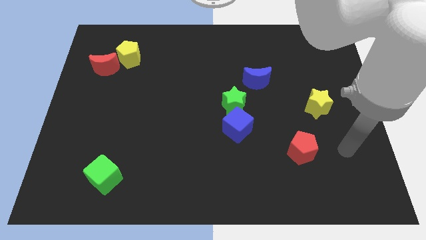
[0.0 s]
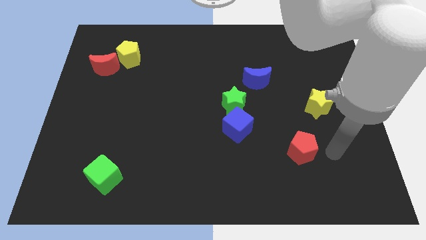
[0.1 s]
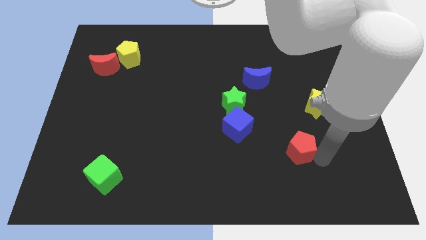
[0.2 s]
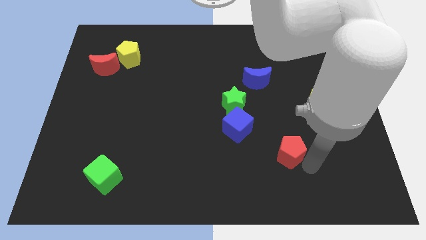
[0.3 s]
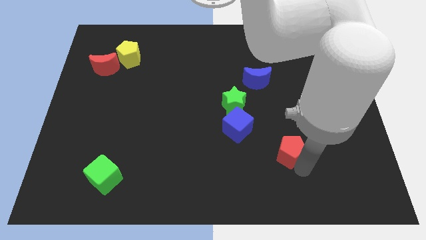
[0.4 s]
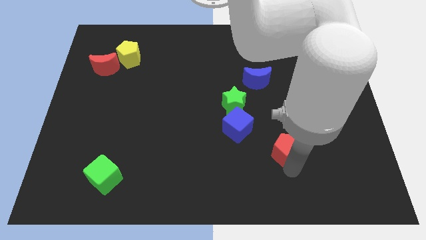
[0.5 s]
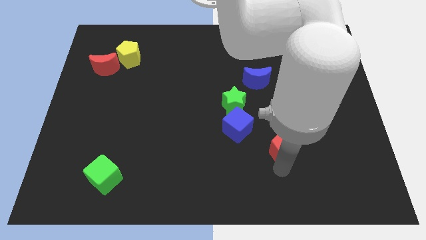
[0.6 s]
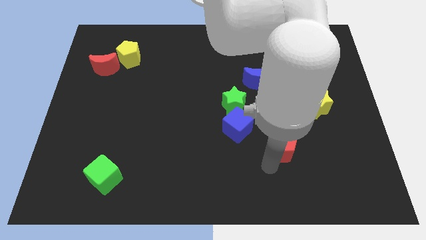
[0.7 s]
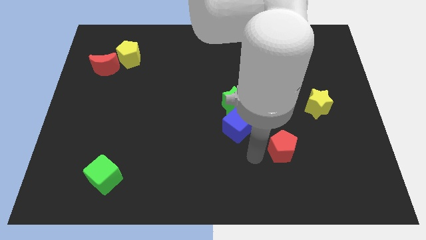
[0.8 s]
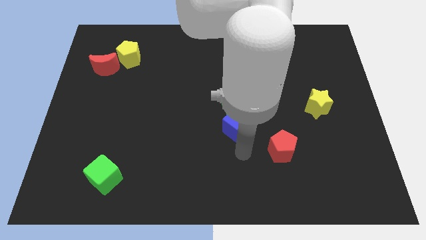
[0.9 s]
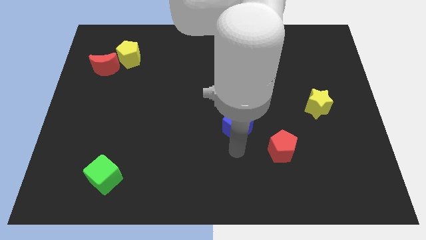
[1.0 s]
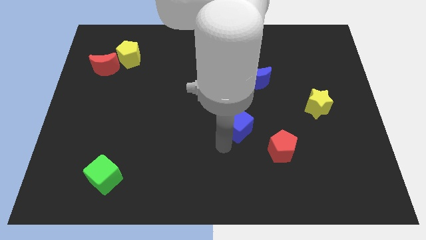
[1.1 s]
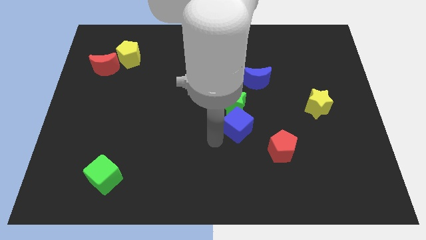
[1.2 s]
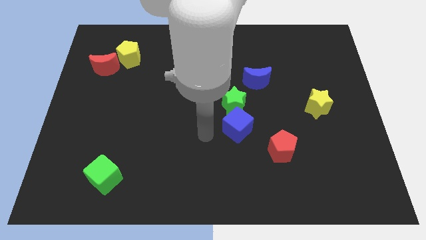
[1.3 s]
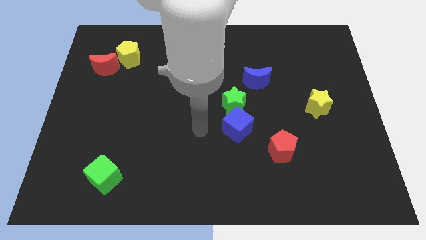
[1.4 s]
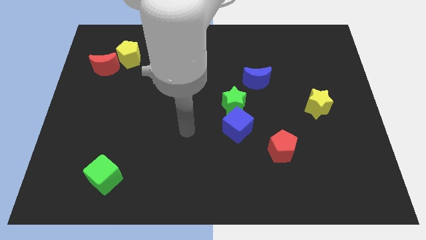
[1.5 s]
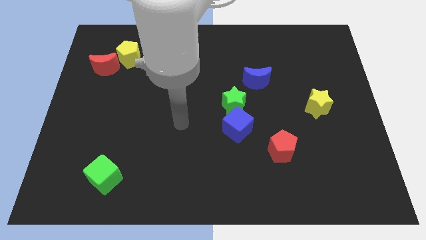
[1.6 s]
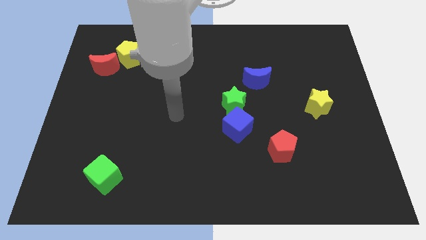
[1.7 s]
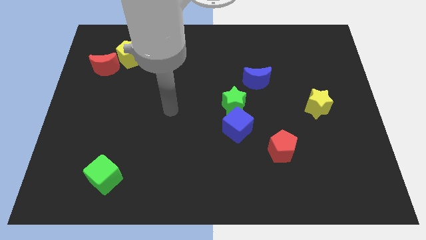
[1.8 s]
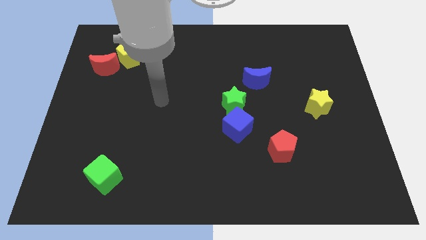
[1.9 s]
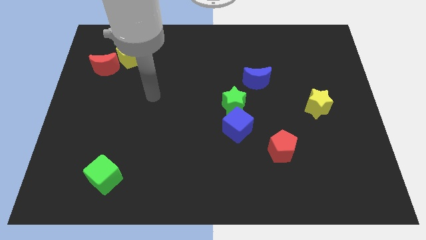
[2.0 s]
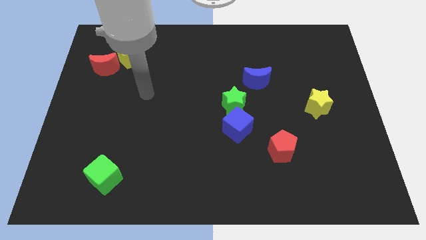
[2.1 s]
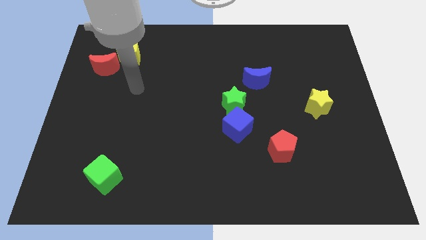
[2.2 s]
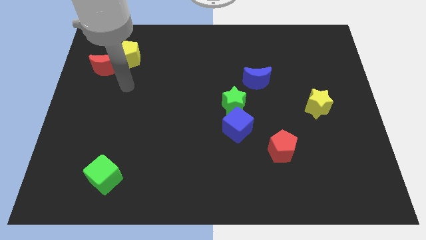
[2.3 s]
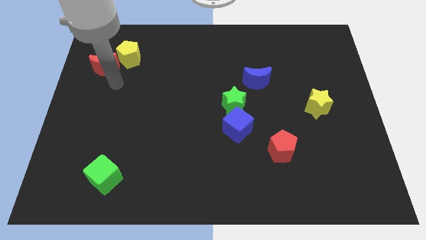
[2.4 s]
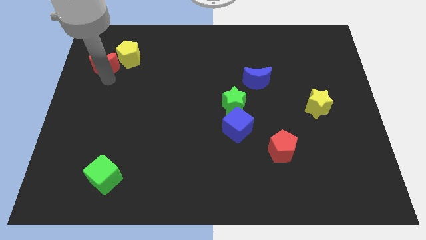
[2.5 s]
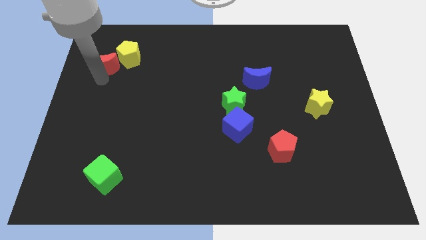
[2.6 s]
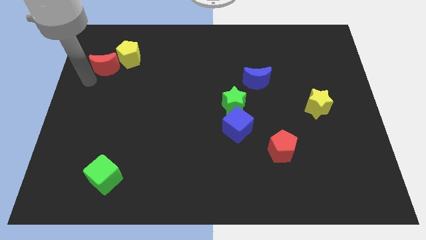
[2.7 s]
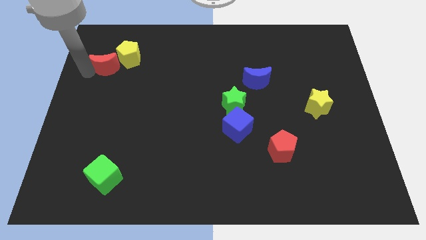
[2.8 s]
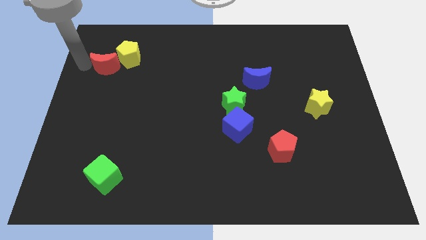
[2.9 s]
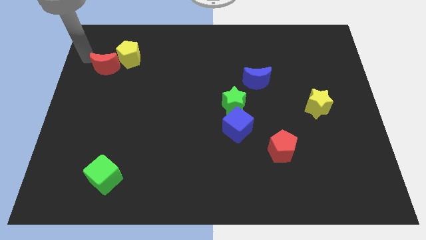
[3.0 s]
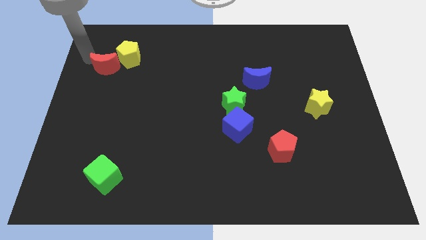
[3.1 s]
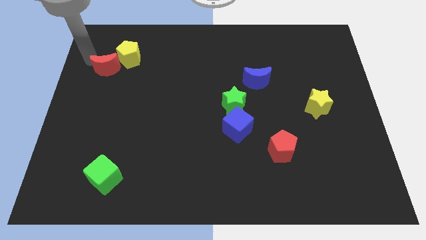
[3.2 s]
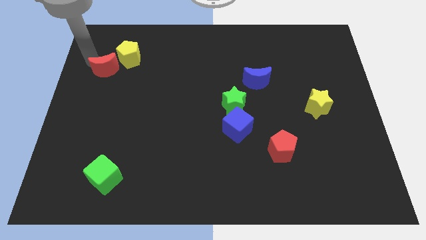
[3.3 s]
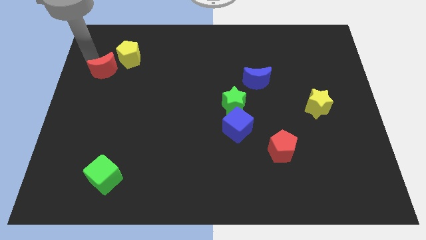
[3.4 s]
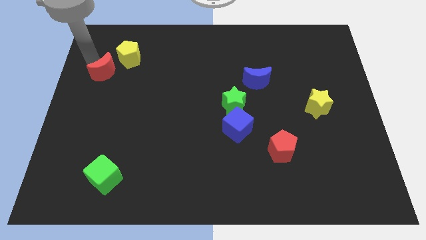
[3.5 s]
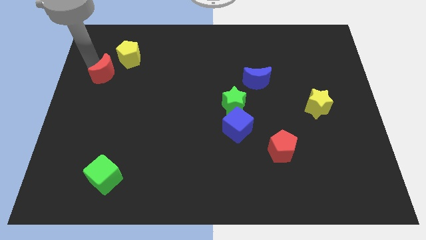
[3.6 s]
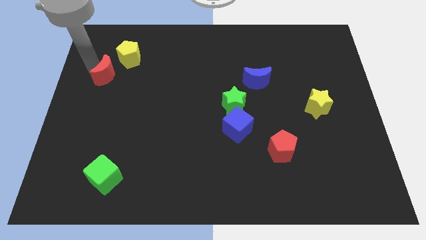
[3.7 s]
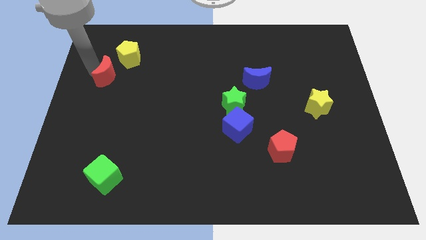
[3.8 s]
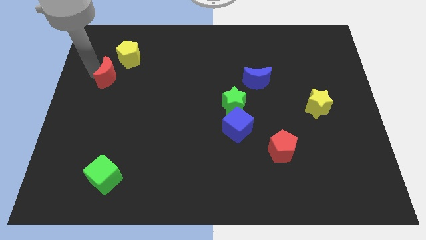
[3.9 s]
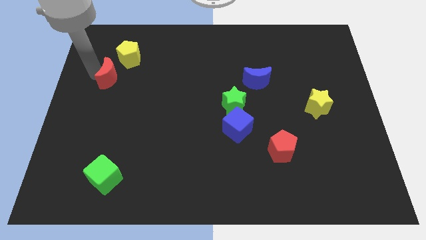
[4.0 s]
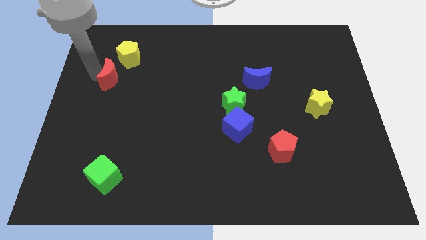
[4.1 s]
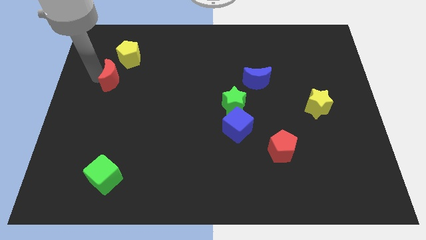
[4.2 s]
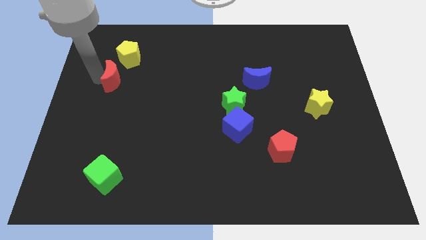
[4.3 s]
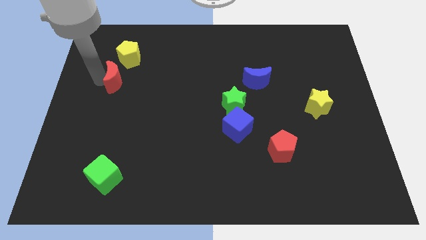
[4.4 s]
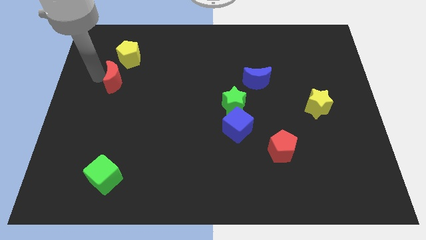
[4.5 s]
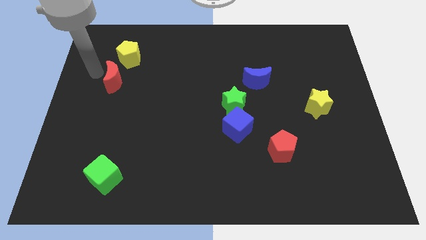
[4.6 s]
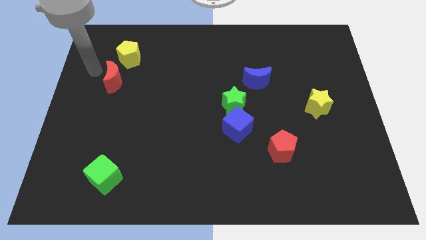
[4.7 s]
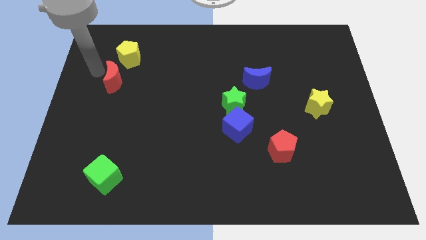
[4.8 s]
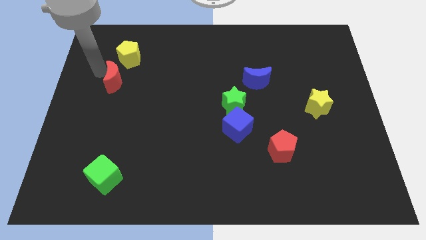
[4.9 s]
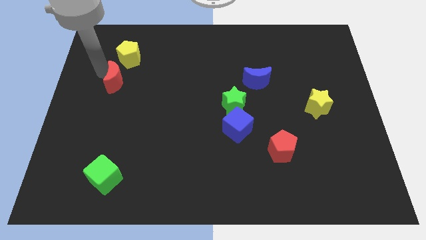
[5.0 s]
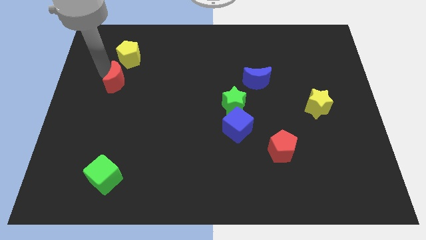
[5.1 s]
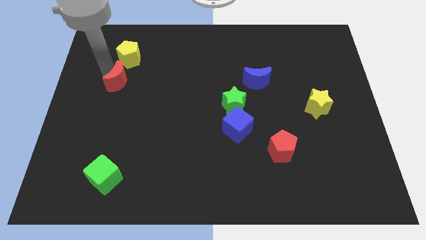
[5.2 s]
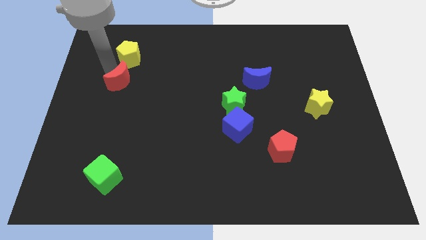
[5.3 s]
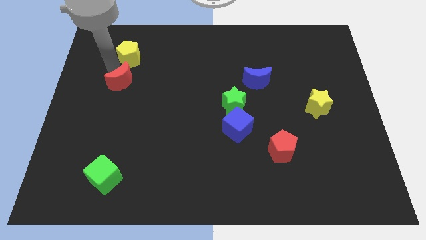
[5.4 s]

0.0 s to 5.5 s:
slightly move the red moon downwards and then to the right

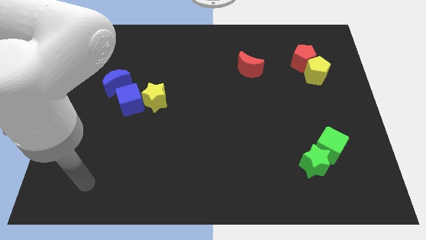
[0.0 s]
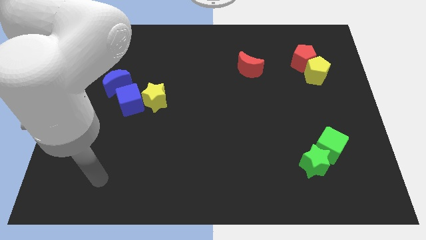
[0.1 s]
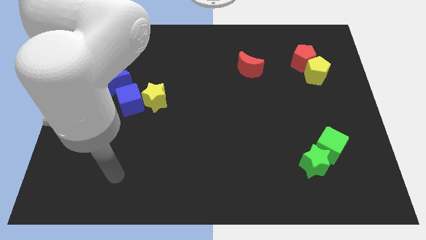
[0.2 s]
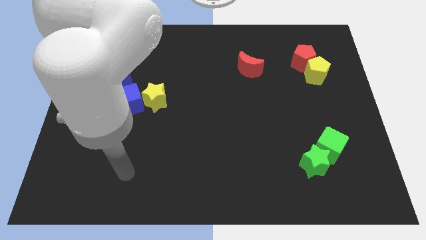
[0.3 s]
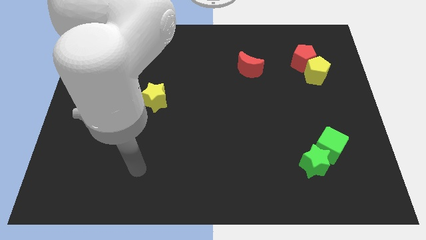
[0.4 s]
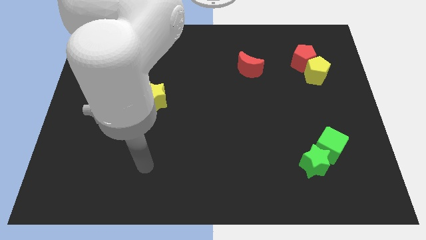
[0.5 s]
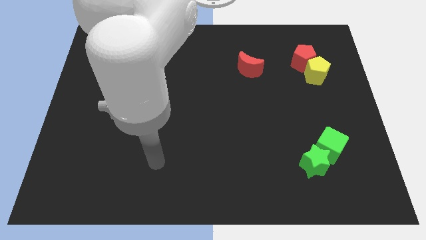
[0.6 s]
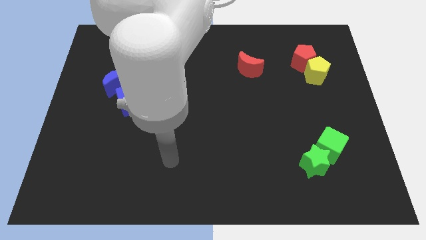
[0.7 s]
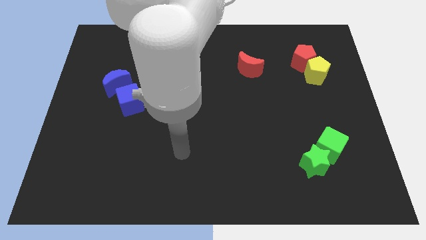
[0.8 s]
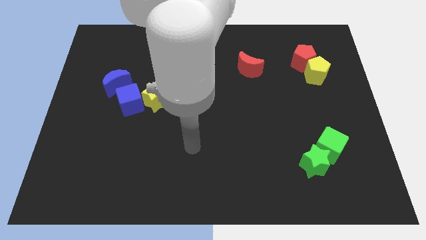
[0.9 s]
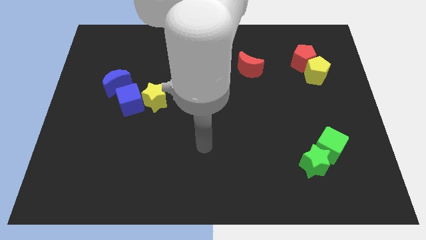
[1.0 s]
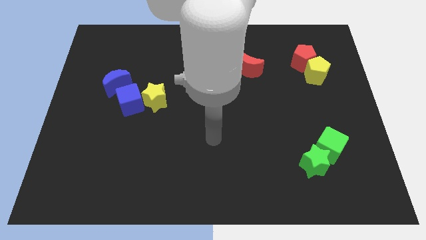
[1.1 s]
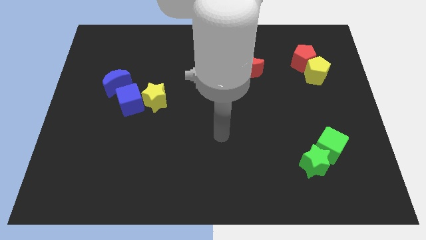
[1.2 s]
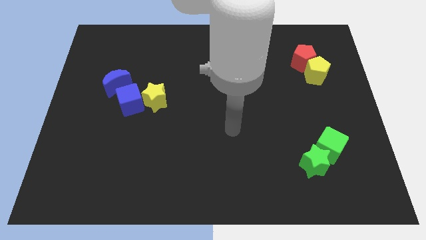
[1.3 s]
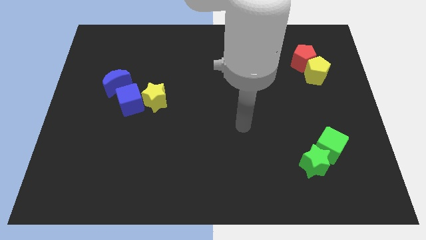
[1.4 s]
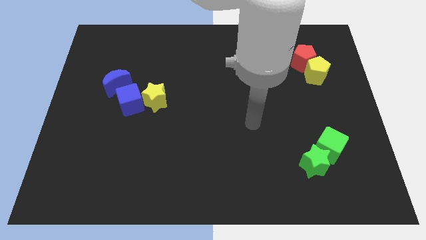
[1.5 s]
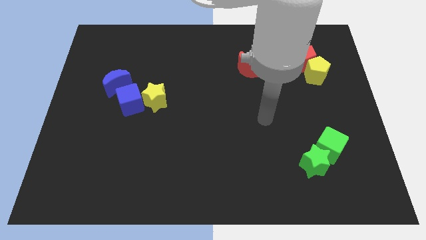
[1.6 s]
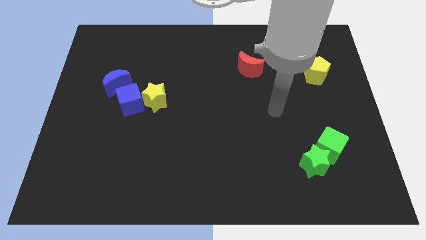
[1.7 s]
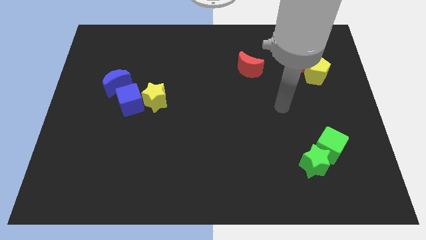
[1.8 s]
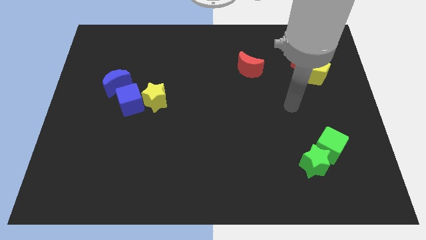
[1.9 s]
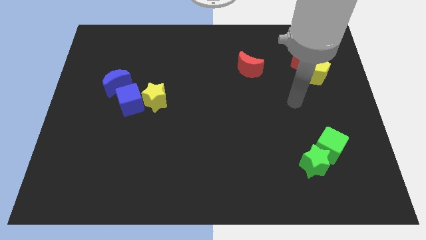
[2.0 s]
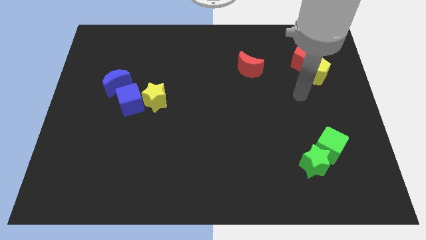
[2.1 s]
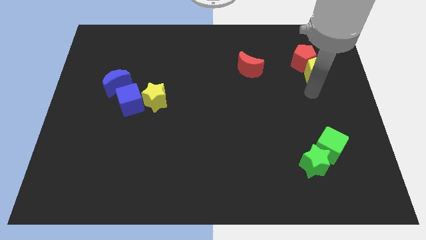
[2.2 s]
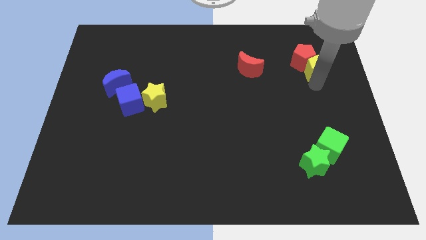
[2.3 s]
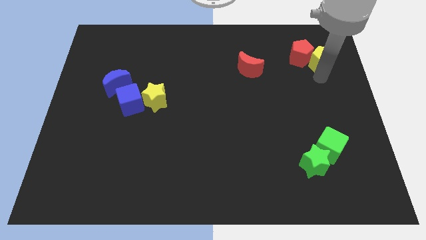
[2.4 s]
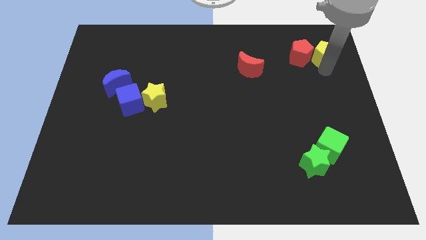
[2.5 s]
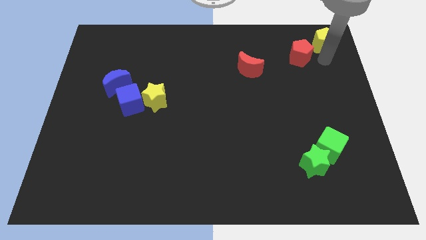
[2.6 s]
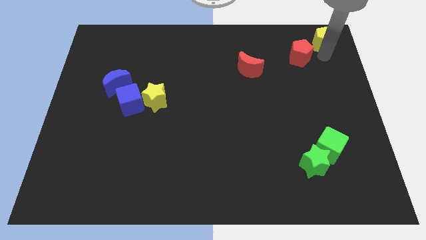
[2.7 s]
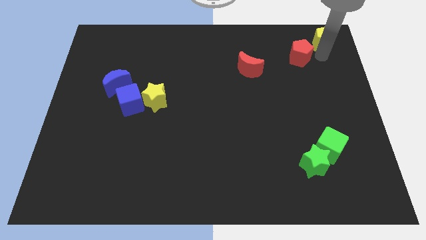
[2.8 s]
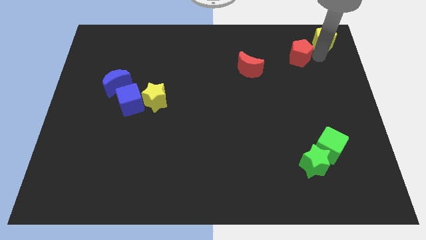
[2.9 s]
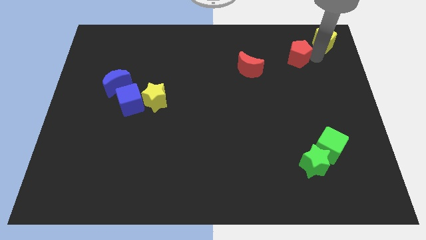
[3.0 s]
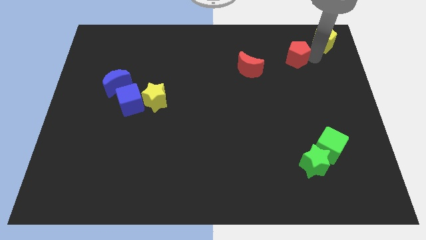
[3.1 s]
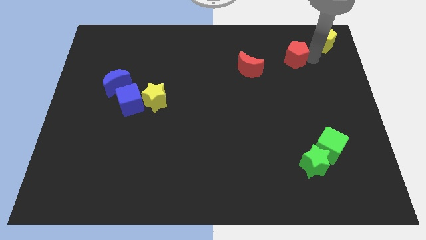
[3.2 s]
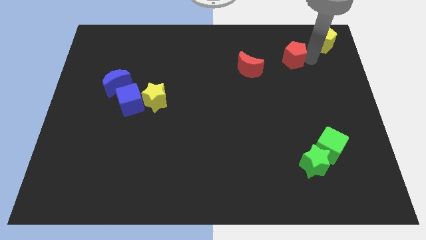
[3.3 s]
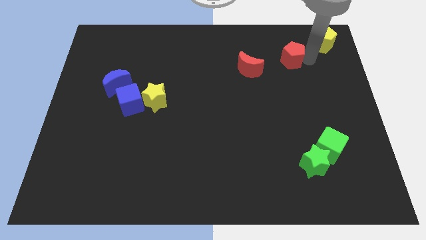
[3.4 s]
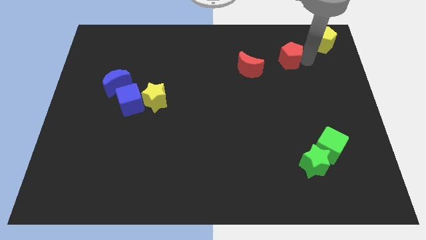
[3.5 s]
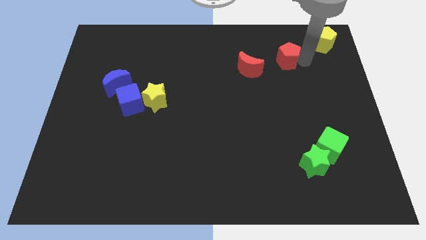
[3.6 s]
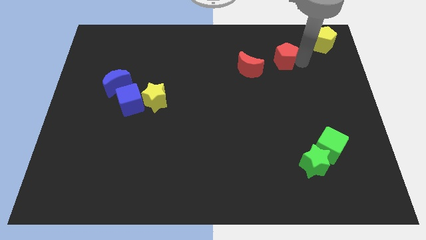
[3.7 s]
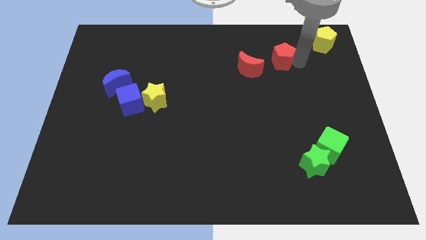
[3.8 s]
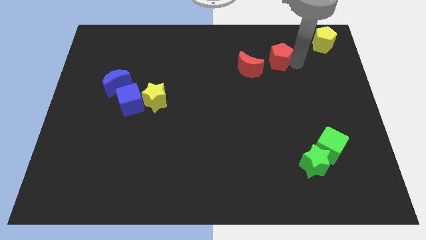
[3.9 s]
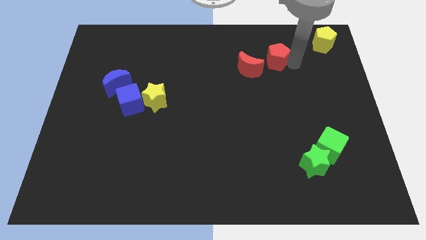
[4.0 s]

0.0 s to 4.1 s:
move the red pentagon slightly to the left
